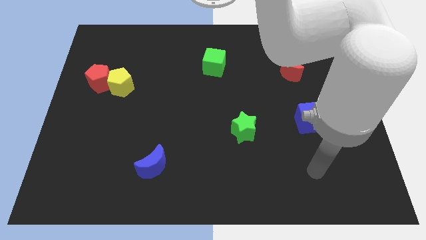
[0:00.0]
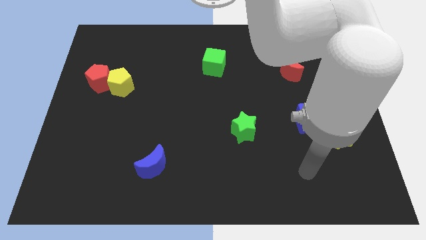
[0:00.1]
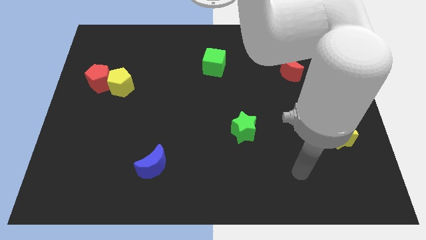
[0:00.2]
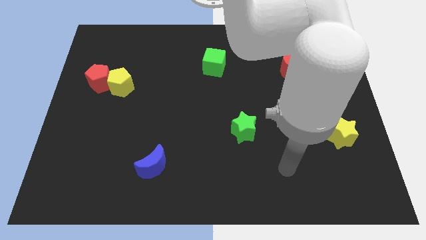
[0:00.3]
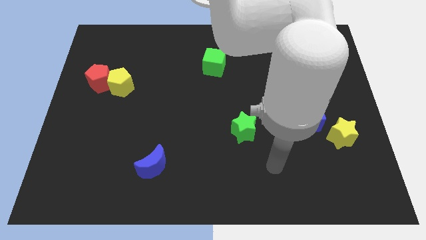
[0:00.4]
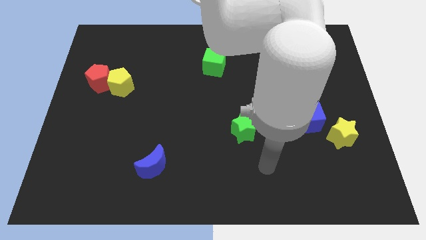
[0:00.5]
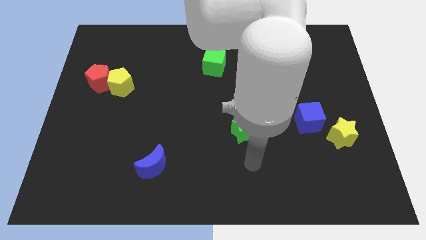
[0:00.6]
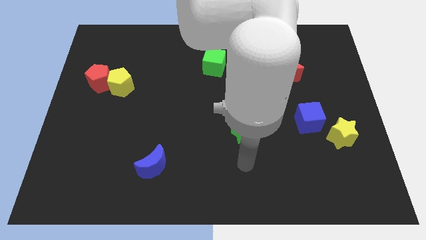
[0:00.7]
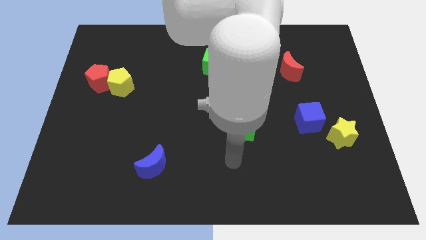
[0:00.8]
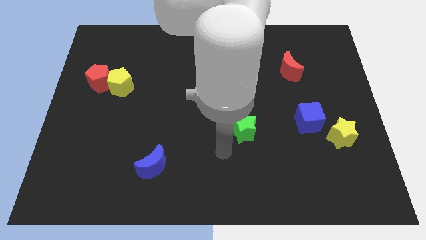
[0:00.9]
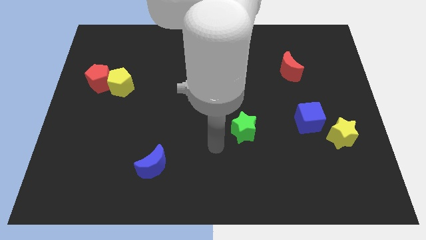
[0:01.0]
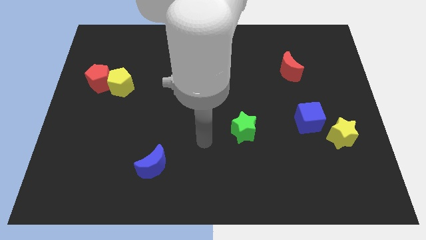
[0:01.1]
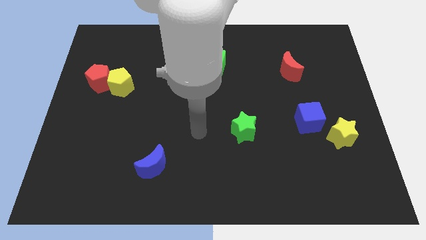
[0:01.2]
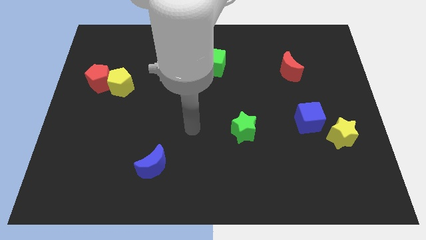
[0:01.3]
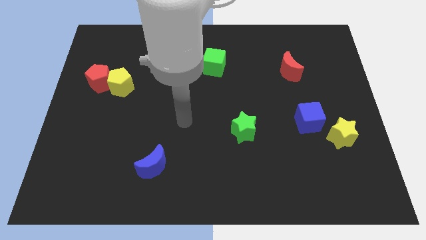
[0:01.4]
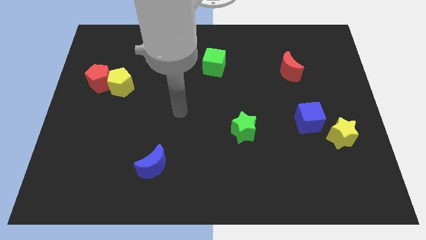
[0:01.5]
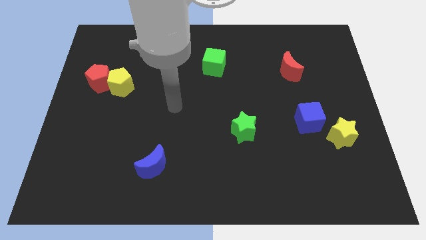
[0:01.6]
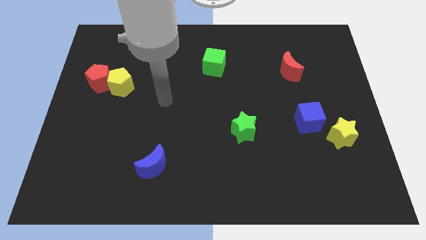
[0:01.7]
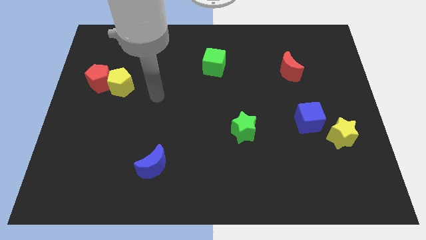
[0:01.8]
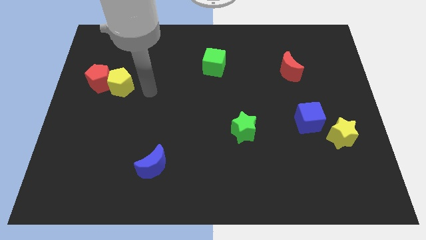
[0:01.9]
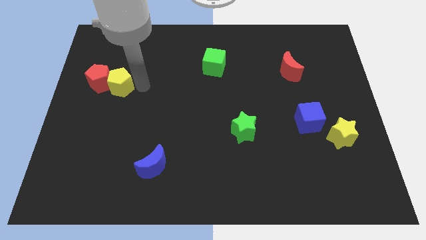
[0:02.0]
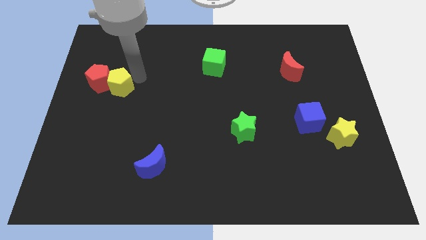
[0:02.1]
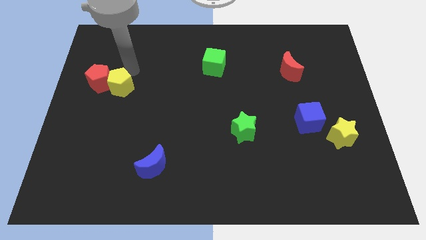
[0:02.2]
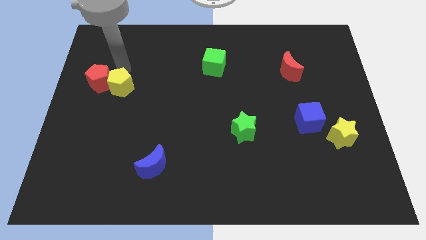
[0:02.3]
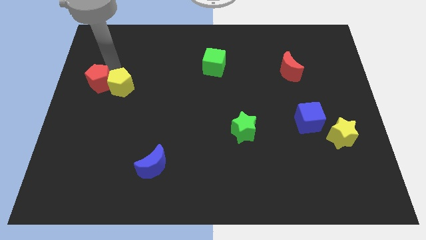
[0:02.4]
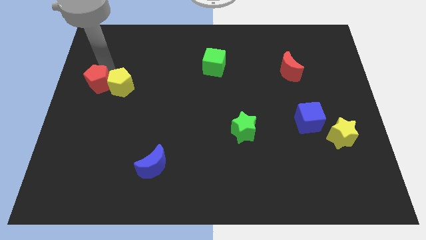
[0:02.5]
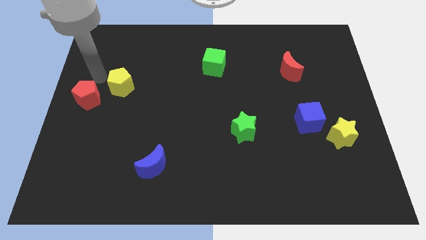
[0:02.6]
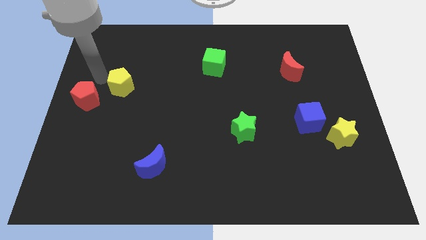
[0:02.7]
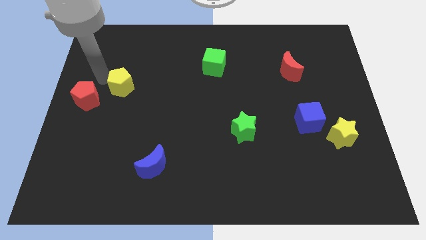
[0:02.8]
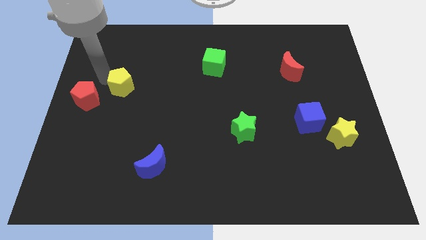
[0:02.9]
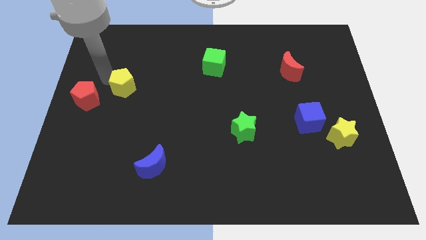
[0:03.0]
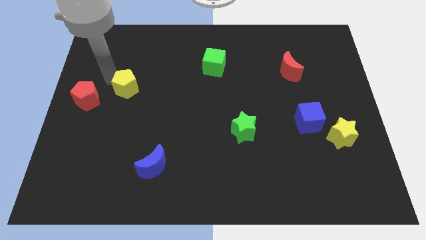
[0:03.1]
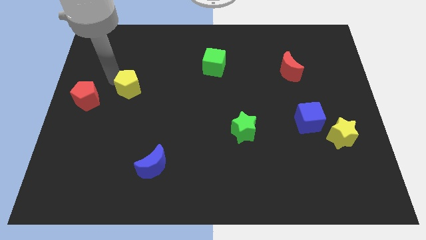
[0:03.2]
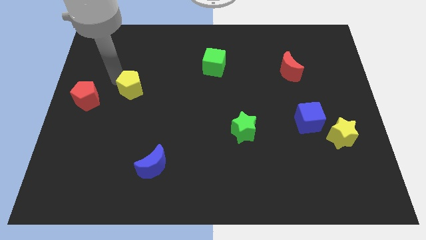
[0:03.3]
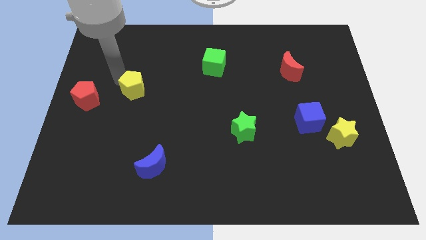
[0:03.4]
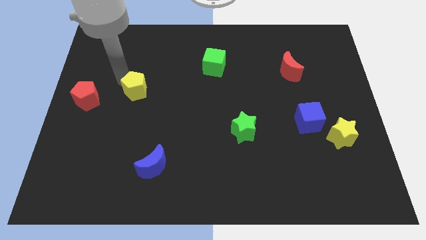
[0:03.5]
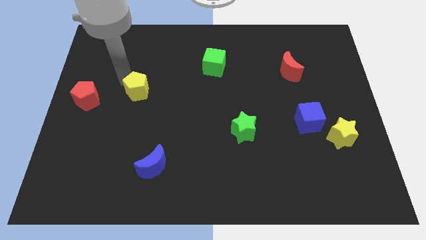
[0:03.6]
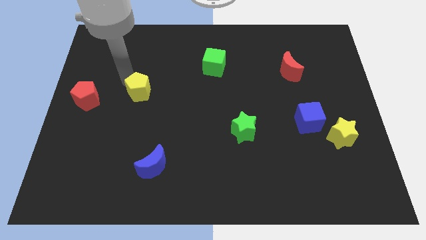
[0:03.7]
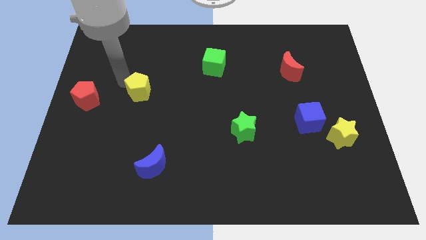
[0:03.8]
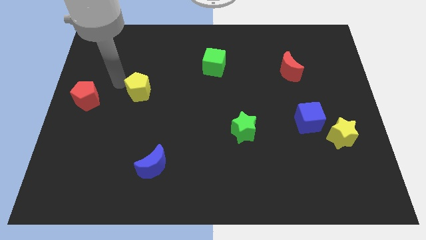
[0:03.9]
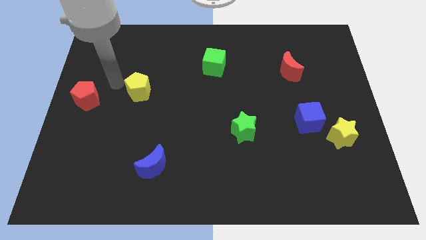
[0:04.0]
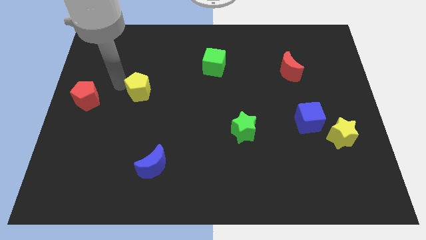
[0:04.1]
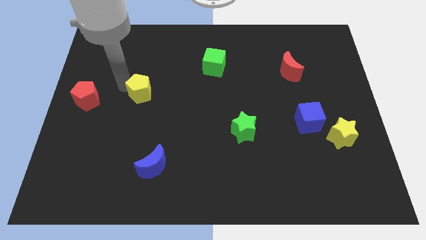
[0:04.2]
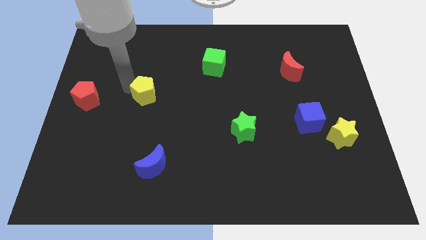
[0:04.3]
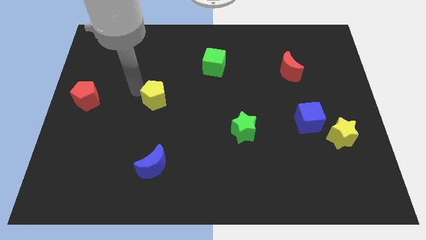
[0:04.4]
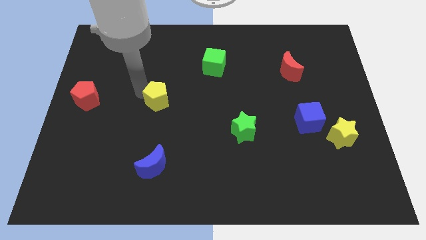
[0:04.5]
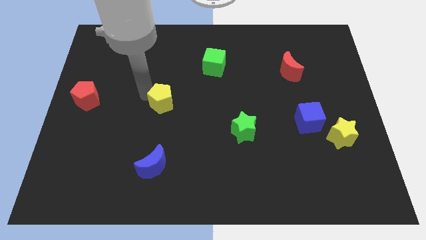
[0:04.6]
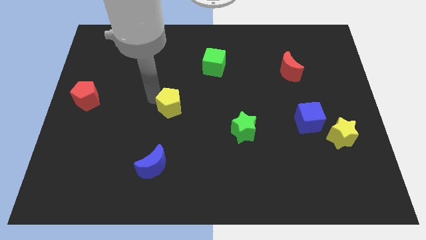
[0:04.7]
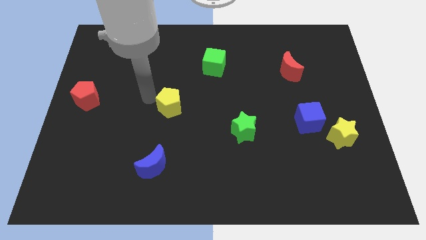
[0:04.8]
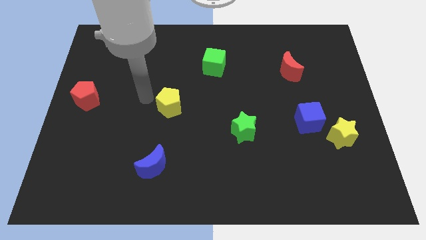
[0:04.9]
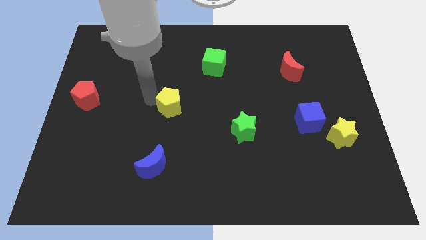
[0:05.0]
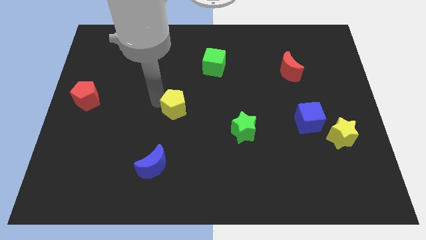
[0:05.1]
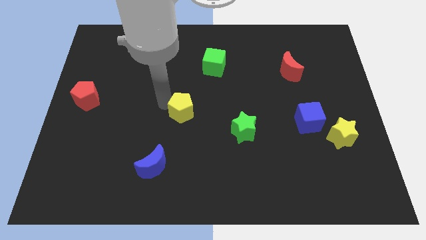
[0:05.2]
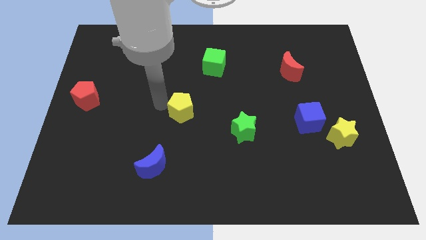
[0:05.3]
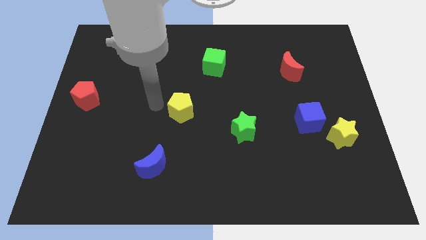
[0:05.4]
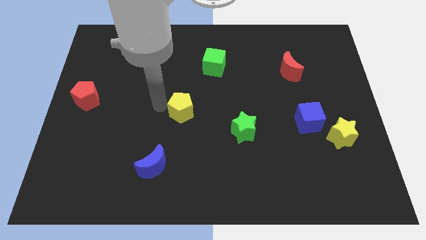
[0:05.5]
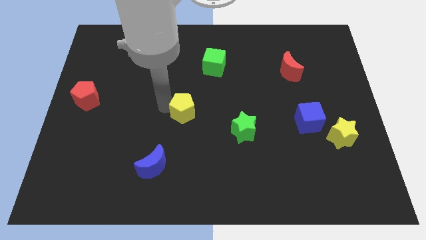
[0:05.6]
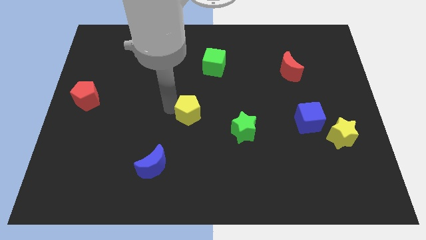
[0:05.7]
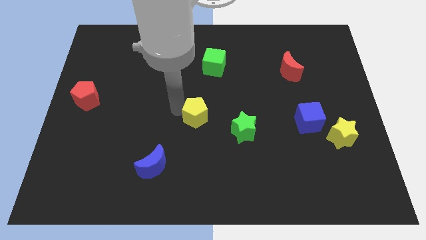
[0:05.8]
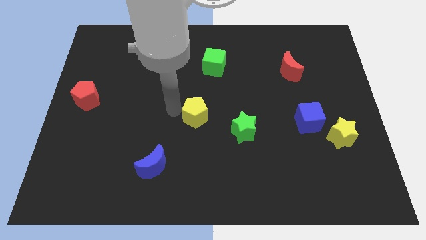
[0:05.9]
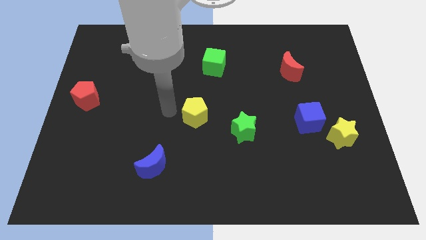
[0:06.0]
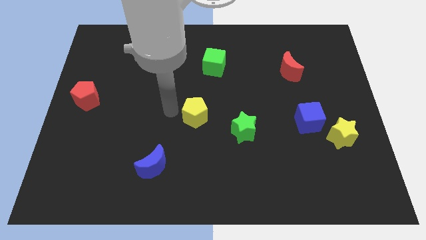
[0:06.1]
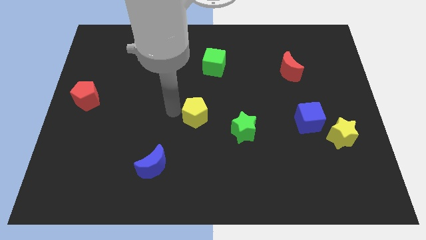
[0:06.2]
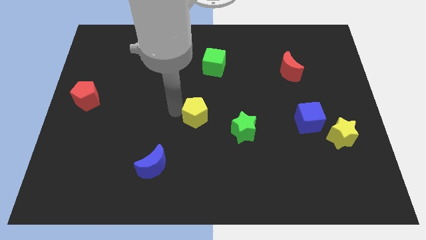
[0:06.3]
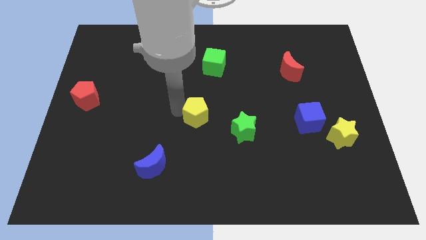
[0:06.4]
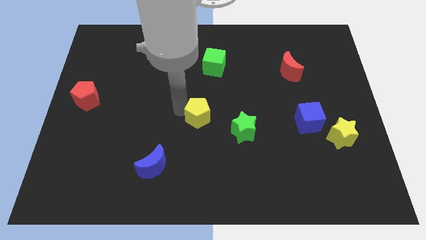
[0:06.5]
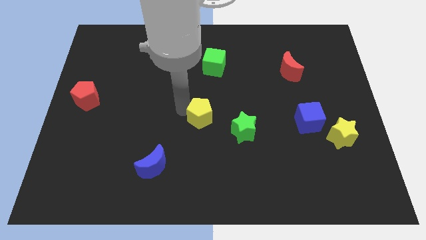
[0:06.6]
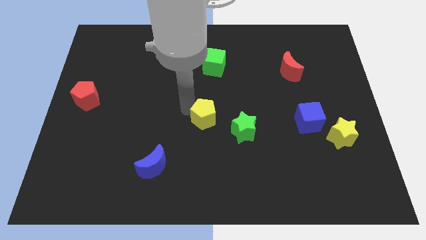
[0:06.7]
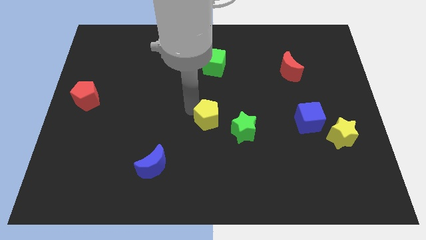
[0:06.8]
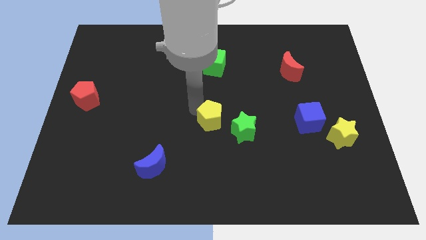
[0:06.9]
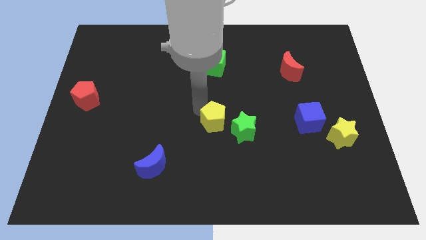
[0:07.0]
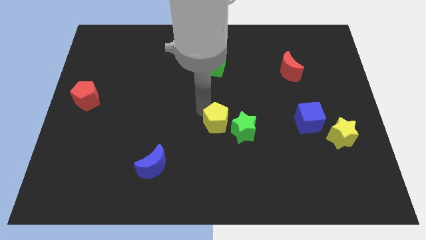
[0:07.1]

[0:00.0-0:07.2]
slide the yellow pentagon close to the green star
